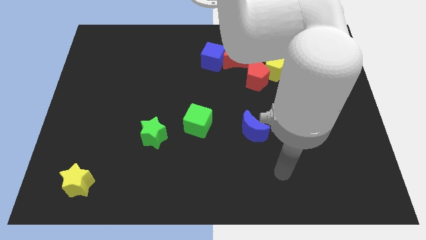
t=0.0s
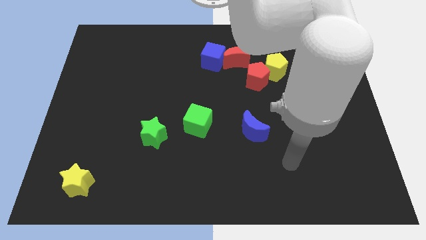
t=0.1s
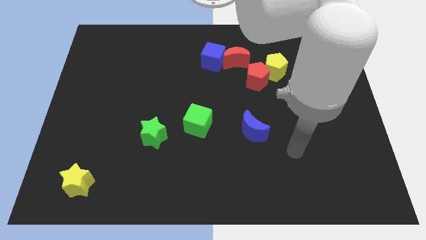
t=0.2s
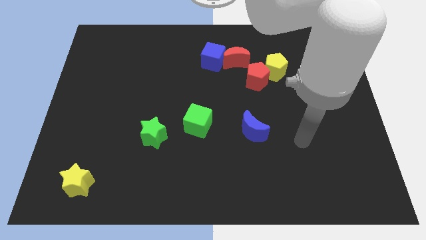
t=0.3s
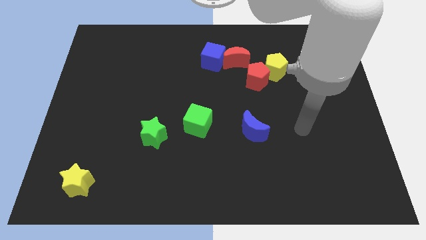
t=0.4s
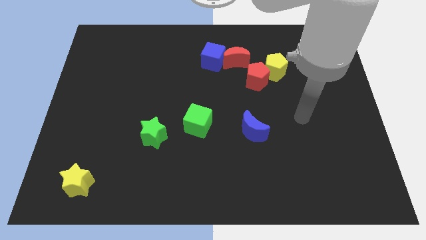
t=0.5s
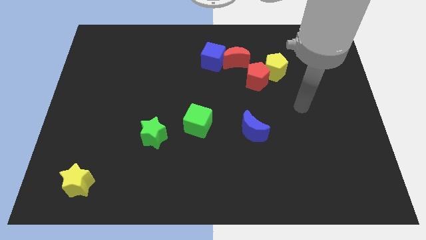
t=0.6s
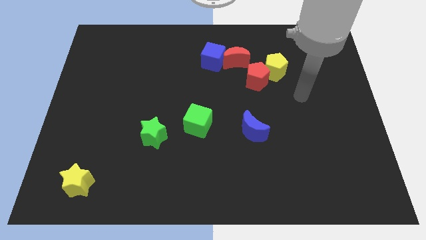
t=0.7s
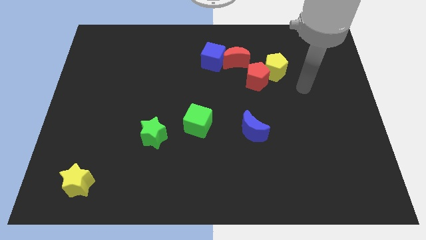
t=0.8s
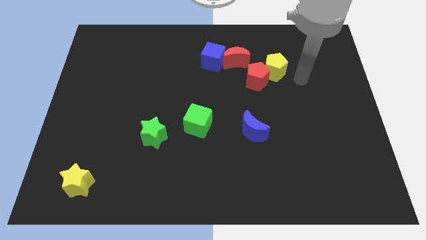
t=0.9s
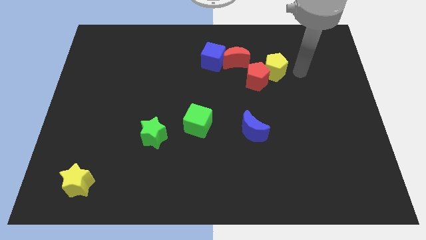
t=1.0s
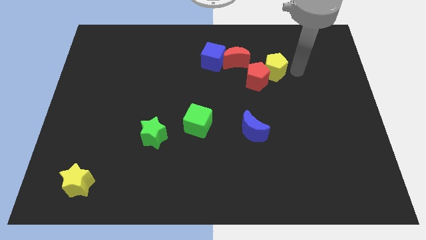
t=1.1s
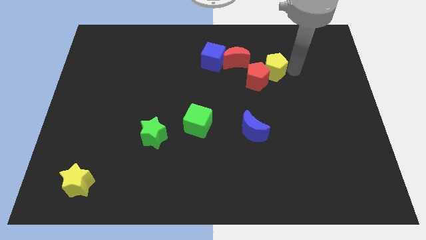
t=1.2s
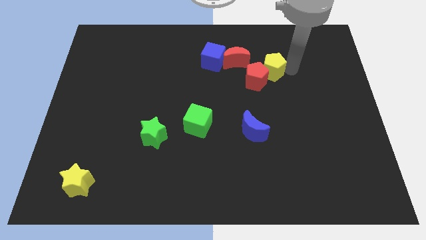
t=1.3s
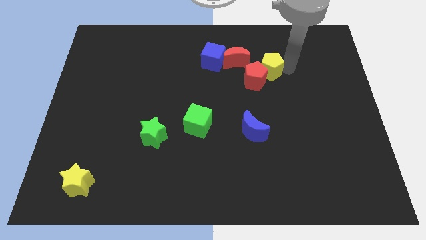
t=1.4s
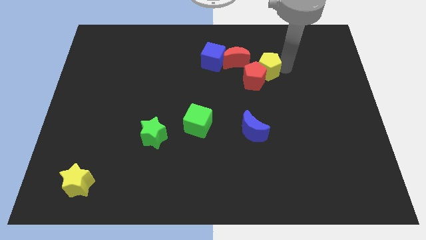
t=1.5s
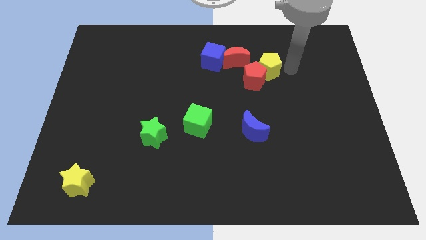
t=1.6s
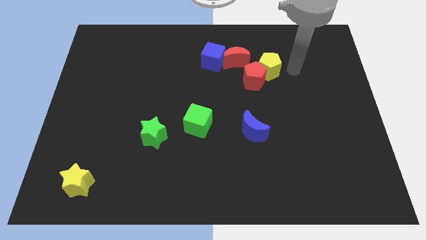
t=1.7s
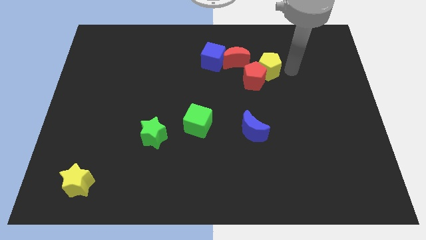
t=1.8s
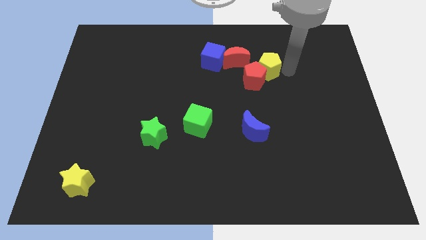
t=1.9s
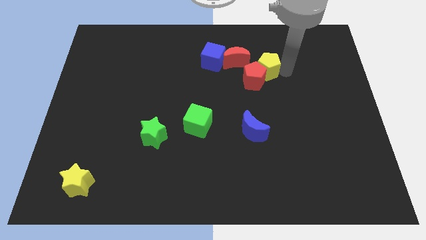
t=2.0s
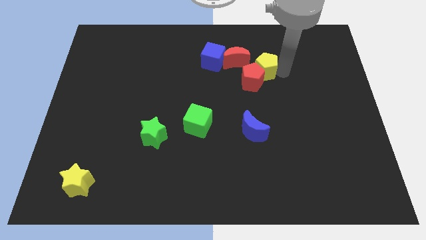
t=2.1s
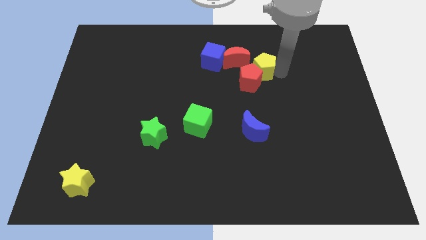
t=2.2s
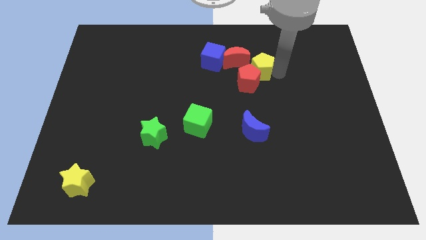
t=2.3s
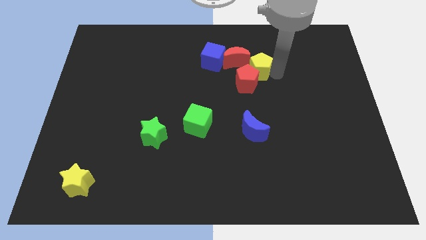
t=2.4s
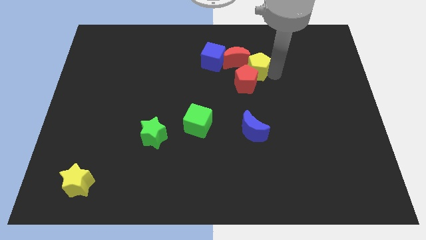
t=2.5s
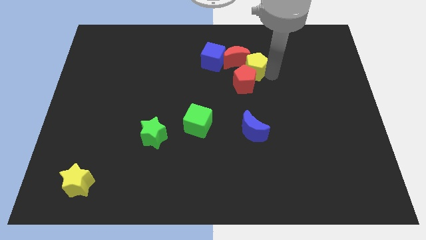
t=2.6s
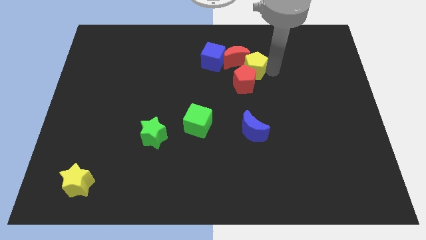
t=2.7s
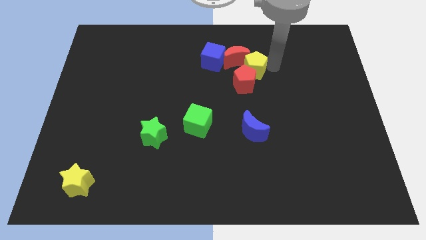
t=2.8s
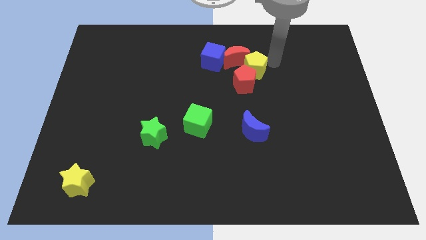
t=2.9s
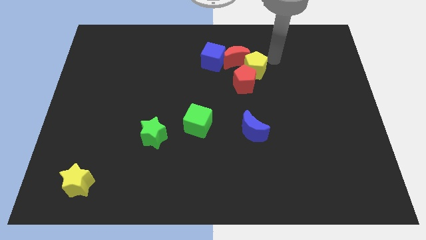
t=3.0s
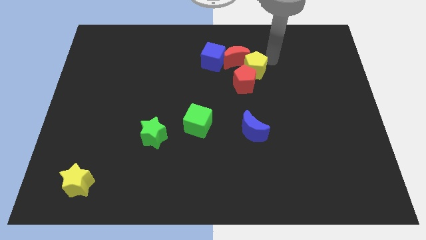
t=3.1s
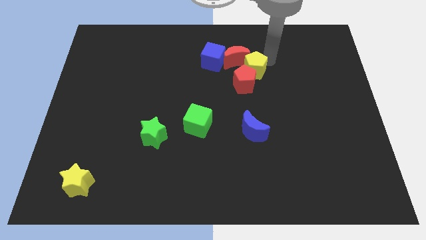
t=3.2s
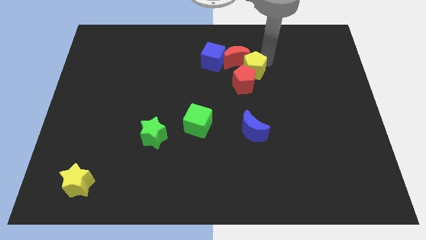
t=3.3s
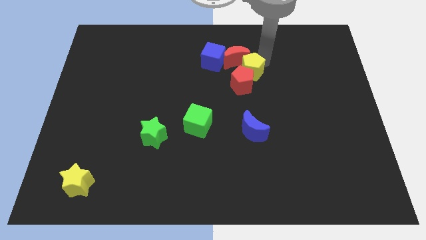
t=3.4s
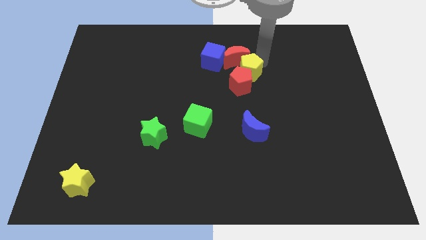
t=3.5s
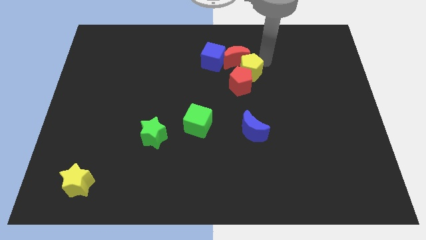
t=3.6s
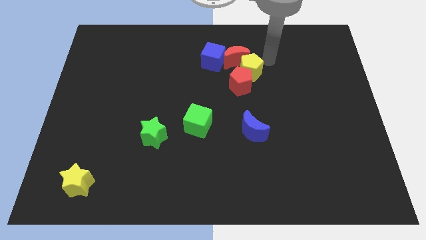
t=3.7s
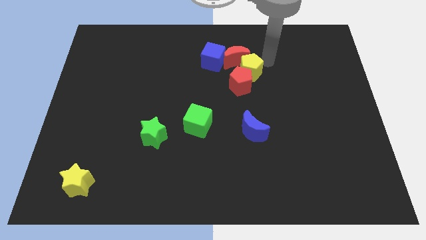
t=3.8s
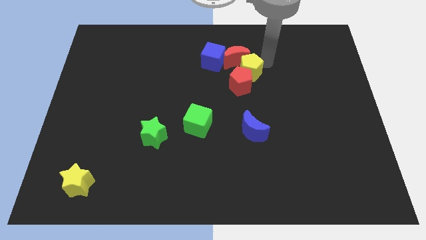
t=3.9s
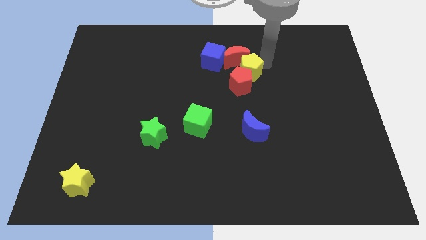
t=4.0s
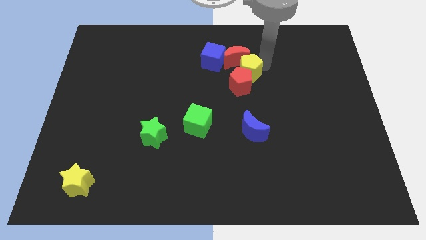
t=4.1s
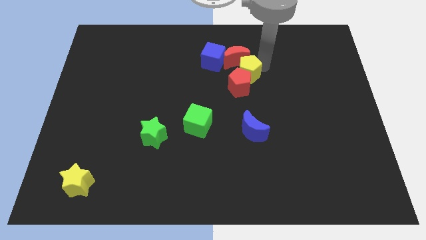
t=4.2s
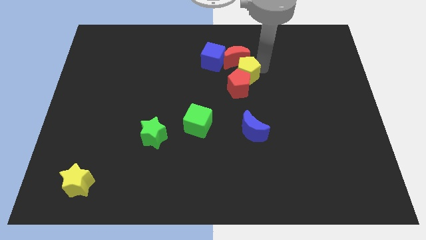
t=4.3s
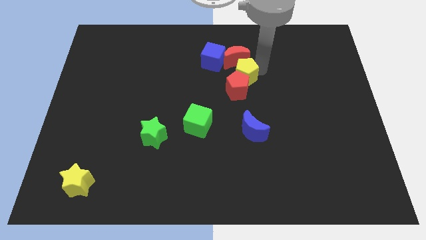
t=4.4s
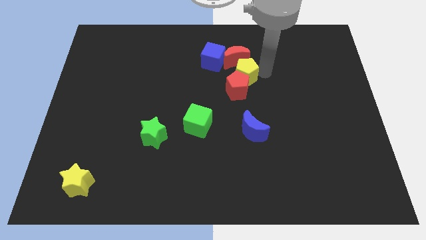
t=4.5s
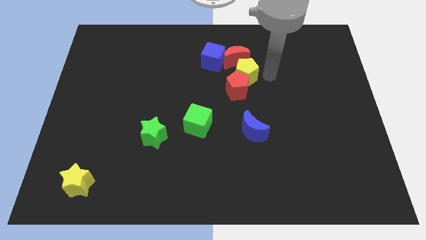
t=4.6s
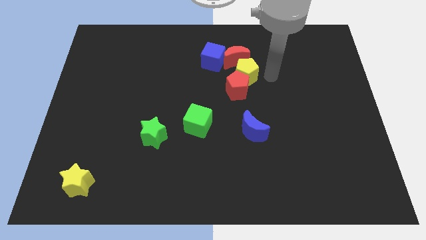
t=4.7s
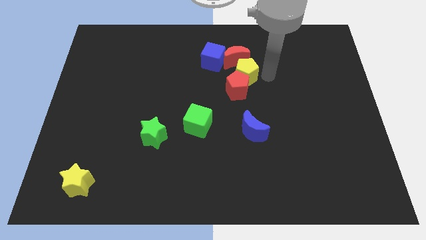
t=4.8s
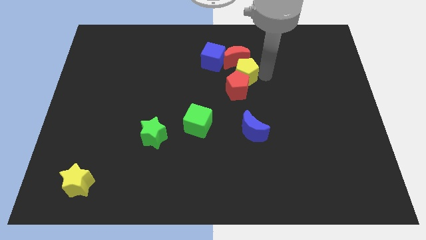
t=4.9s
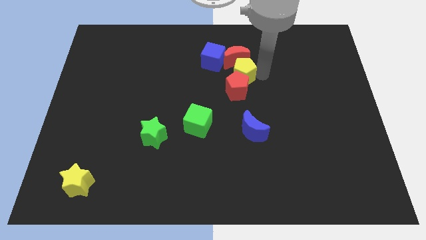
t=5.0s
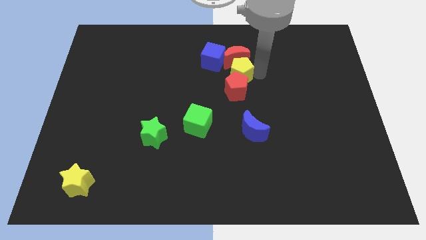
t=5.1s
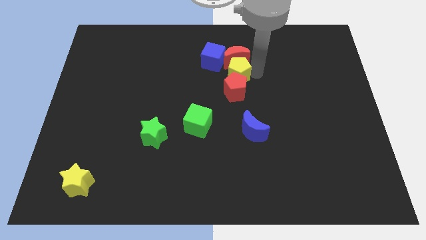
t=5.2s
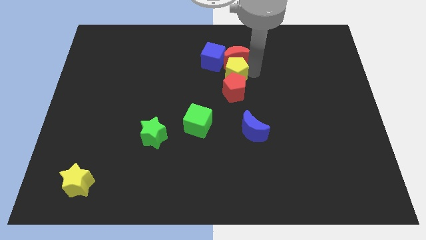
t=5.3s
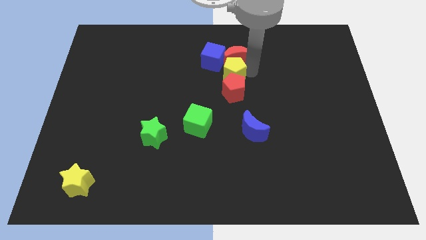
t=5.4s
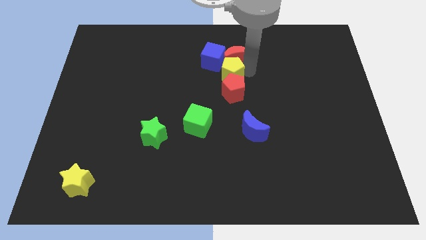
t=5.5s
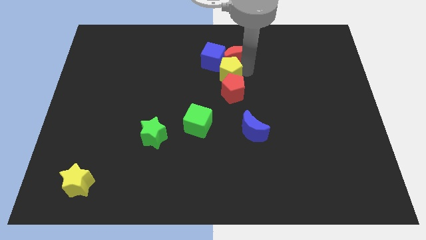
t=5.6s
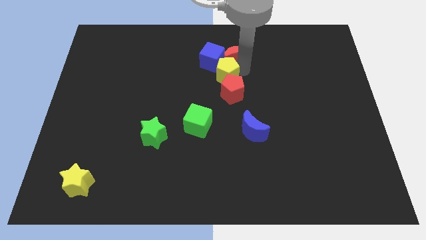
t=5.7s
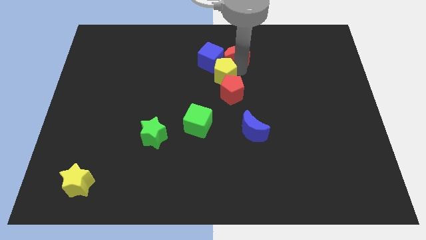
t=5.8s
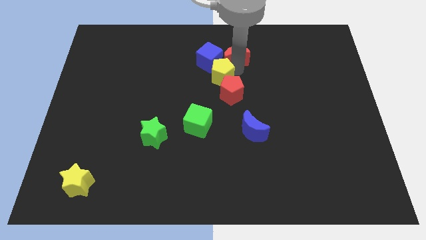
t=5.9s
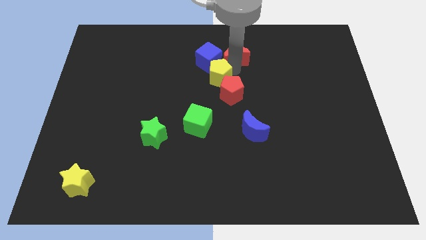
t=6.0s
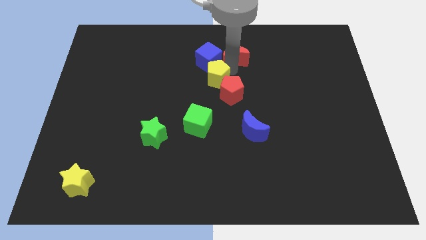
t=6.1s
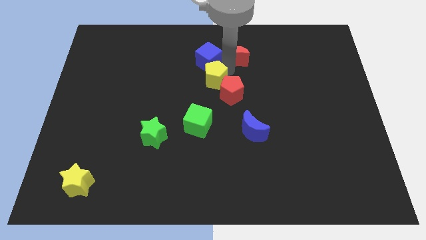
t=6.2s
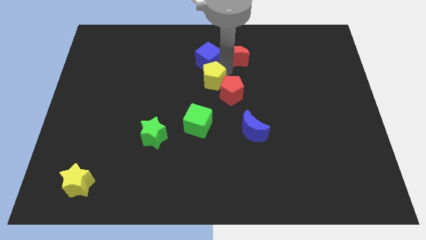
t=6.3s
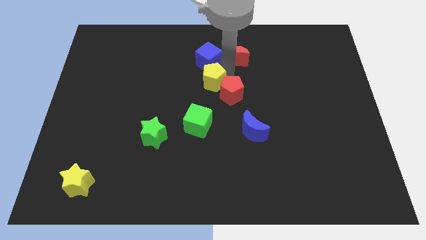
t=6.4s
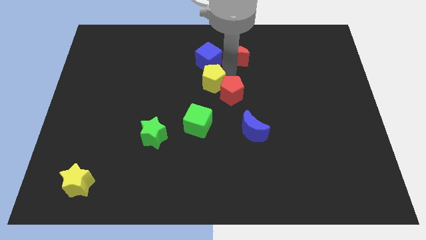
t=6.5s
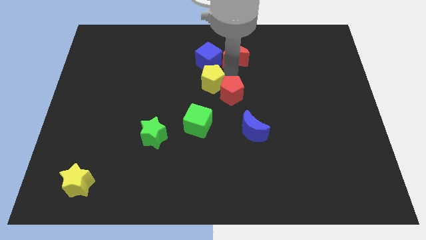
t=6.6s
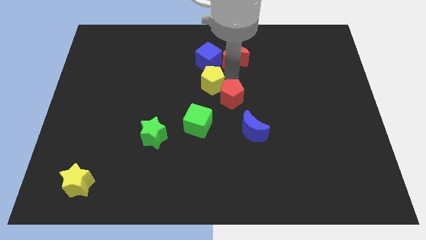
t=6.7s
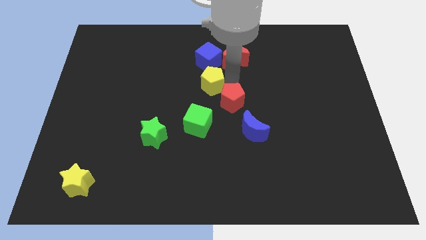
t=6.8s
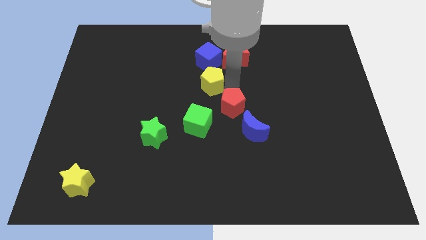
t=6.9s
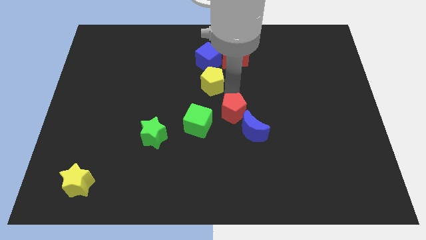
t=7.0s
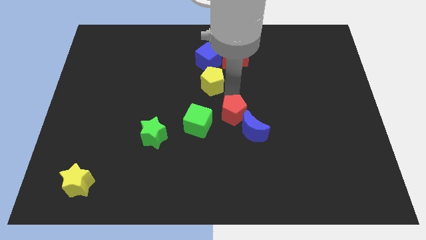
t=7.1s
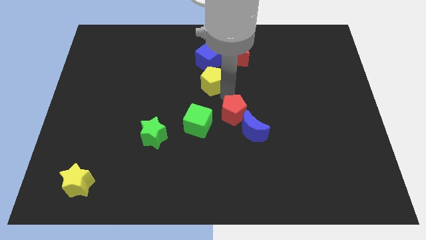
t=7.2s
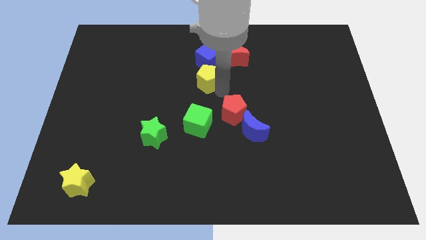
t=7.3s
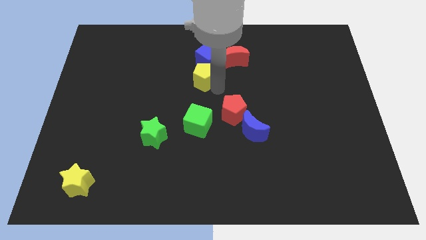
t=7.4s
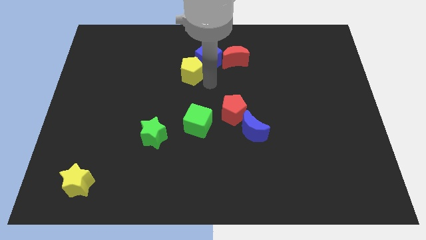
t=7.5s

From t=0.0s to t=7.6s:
push the yellow pentagon to the left side of the blue cube
